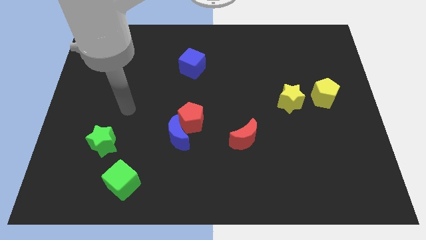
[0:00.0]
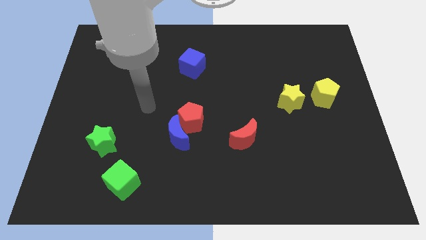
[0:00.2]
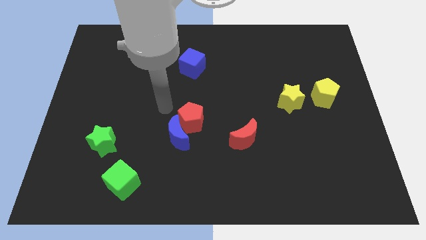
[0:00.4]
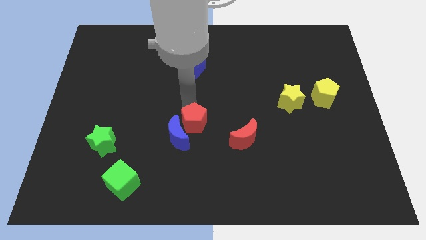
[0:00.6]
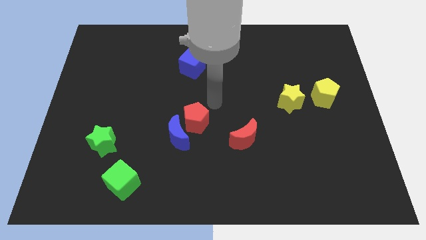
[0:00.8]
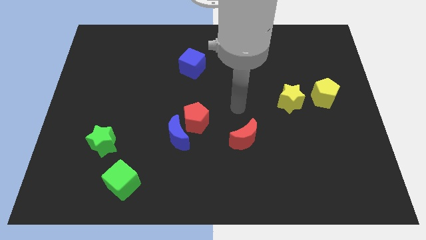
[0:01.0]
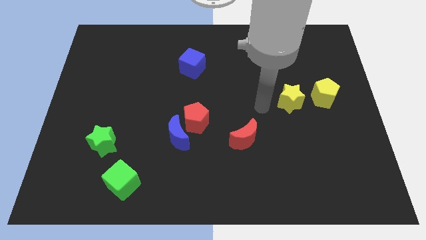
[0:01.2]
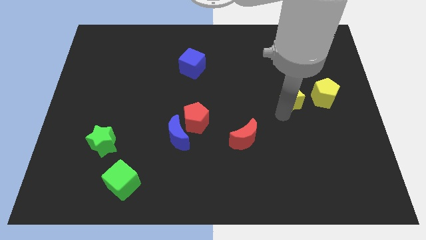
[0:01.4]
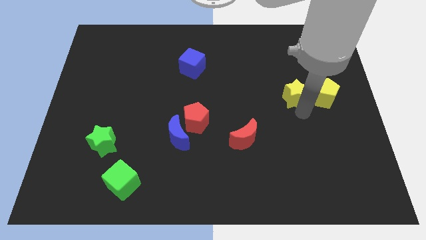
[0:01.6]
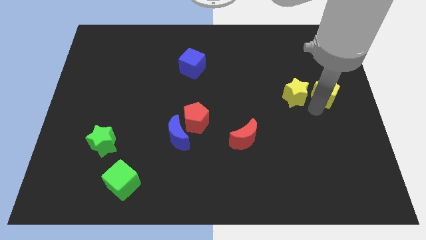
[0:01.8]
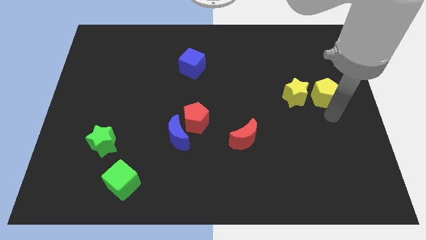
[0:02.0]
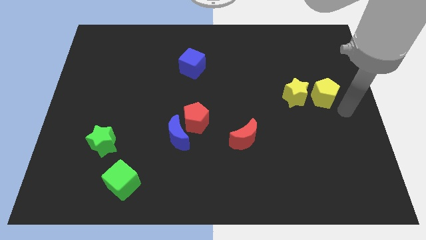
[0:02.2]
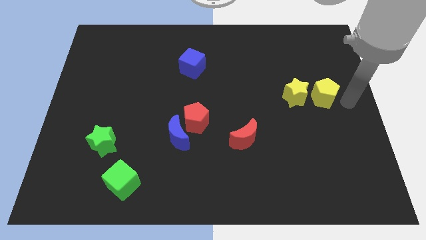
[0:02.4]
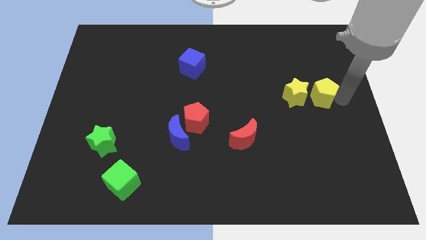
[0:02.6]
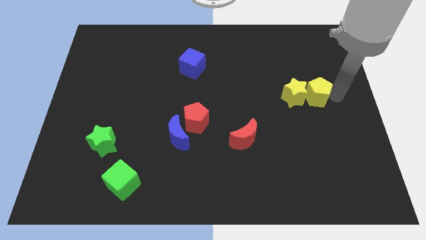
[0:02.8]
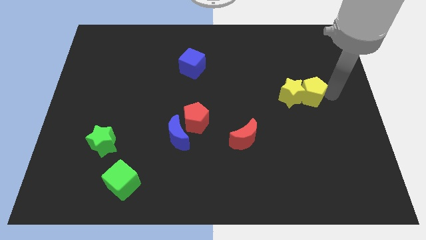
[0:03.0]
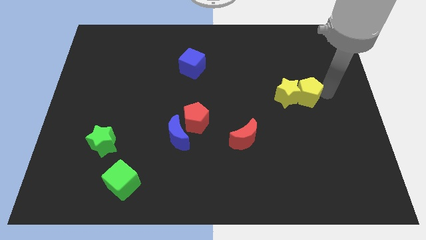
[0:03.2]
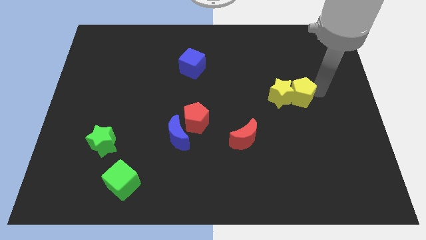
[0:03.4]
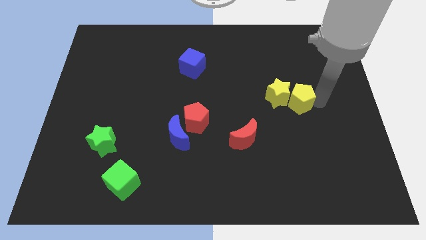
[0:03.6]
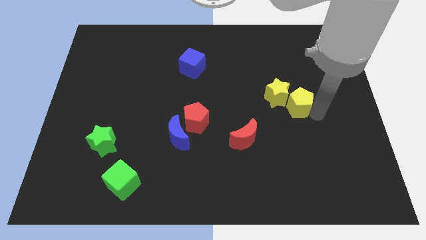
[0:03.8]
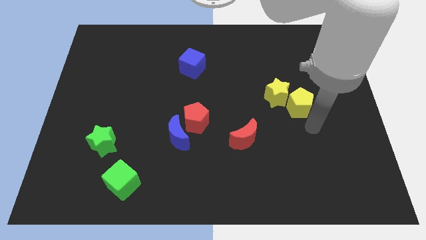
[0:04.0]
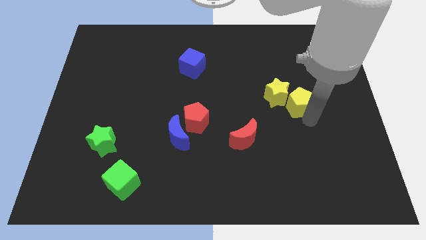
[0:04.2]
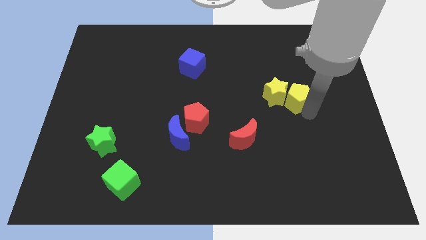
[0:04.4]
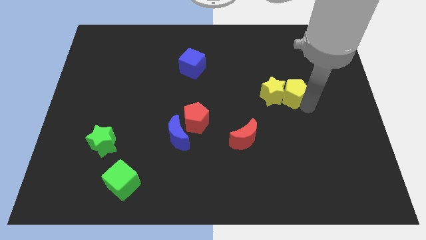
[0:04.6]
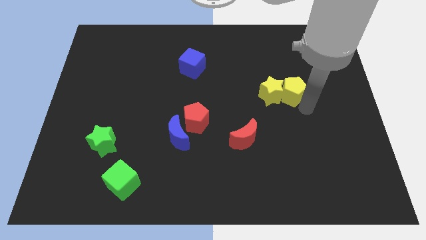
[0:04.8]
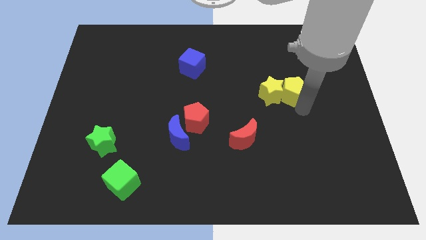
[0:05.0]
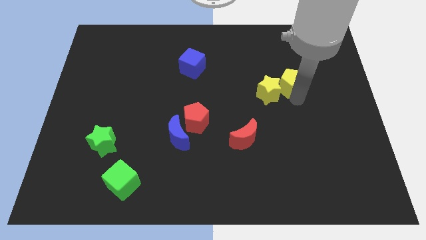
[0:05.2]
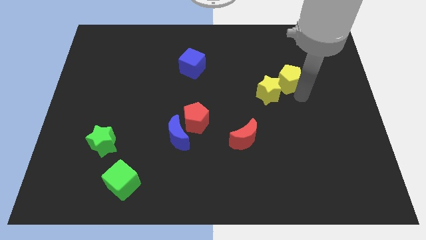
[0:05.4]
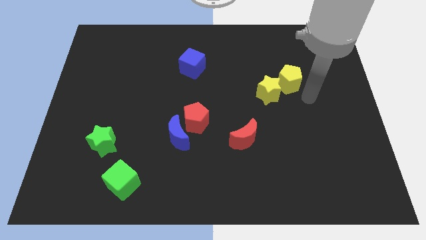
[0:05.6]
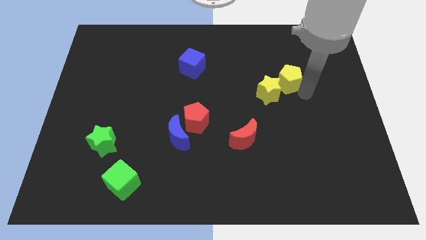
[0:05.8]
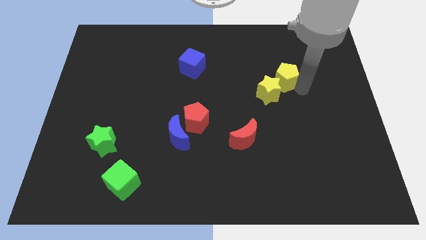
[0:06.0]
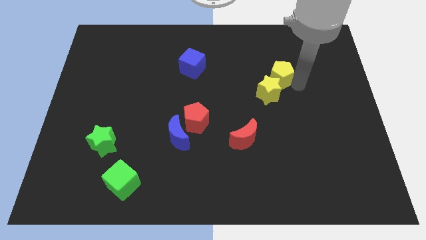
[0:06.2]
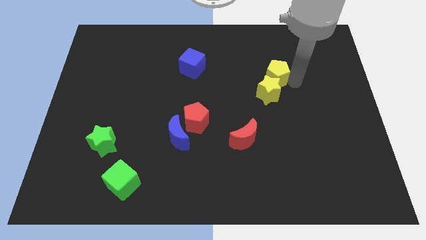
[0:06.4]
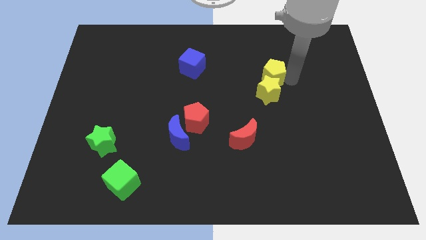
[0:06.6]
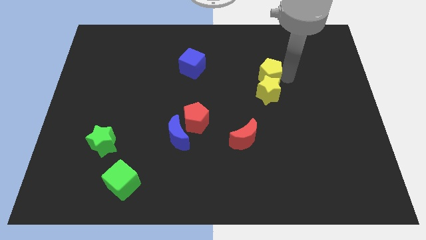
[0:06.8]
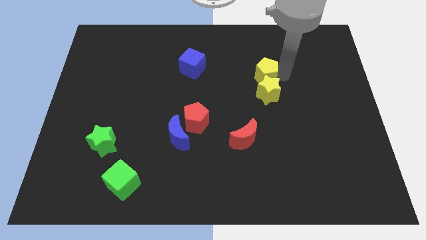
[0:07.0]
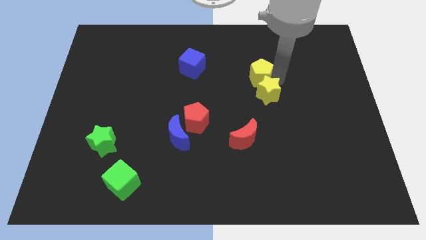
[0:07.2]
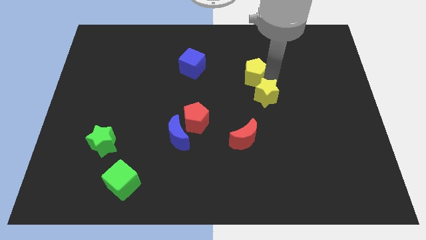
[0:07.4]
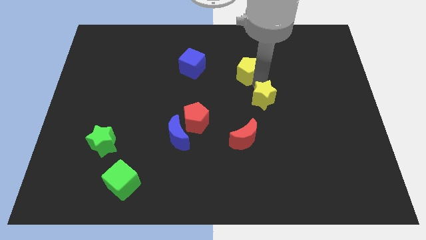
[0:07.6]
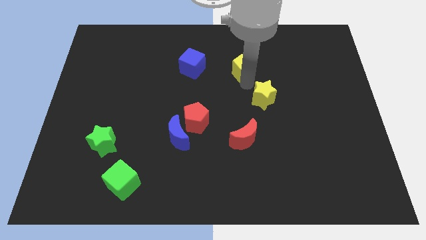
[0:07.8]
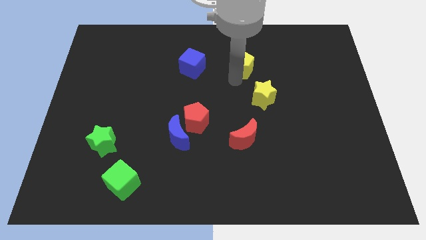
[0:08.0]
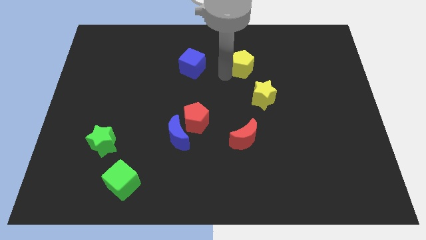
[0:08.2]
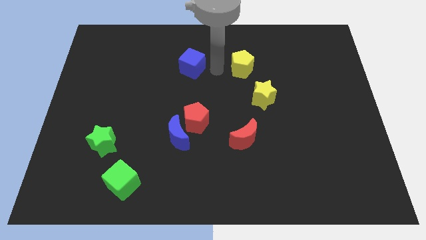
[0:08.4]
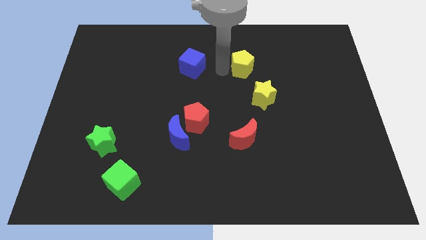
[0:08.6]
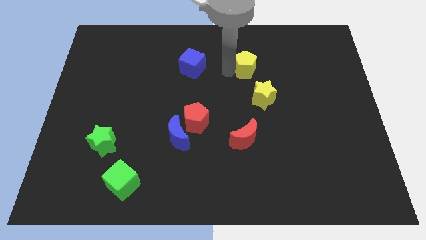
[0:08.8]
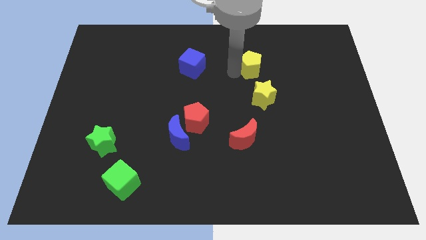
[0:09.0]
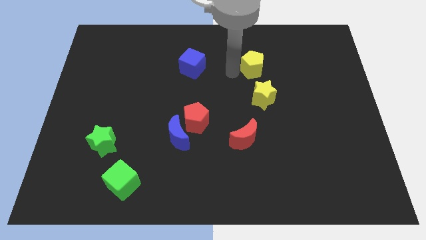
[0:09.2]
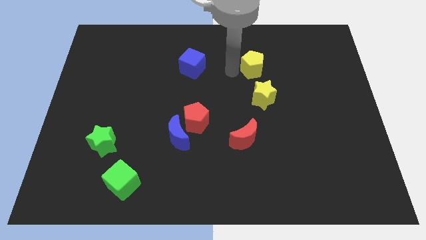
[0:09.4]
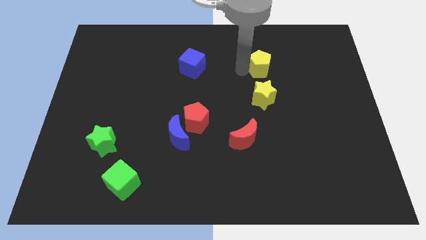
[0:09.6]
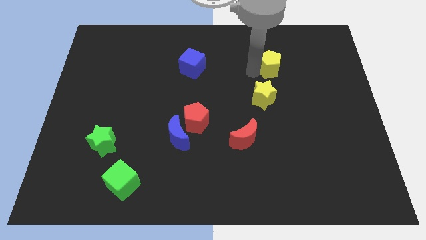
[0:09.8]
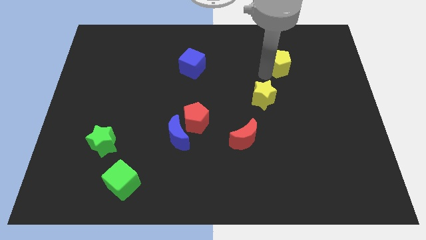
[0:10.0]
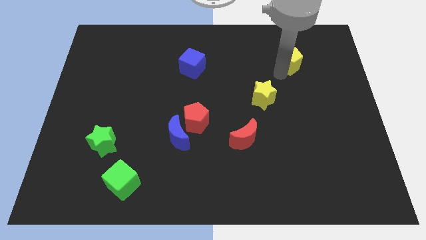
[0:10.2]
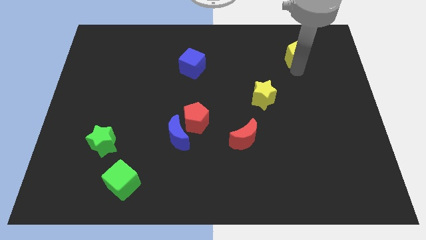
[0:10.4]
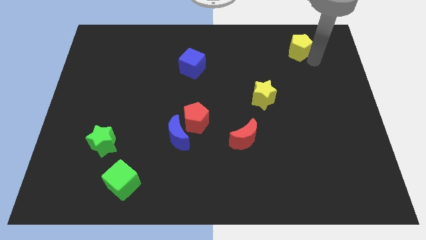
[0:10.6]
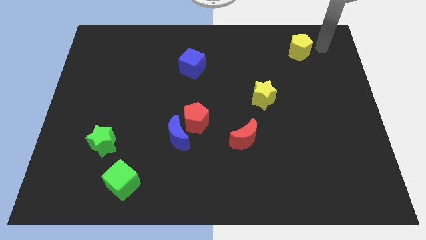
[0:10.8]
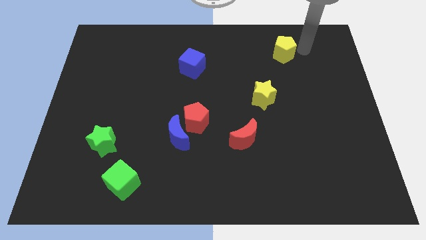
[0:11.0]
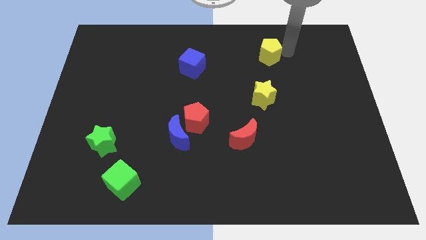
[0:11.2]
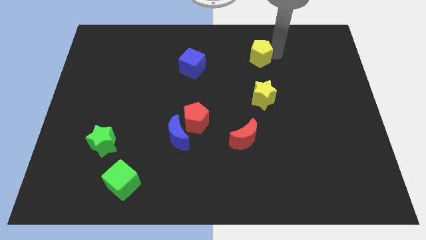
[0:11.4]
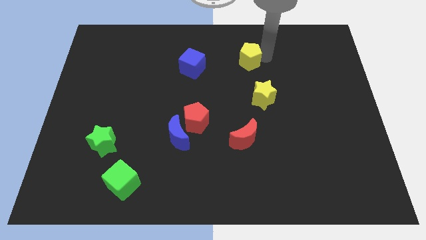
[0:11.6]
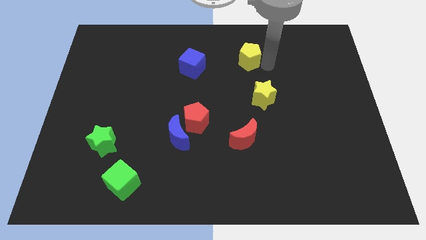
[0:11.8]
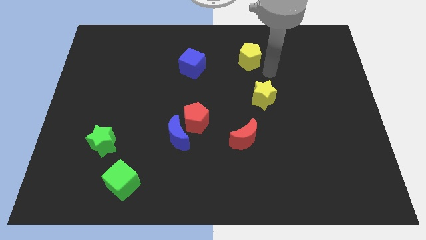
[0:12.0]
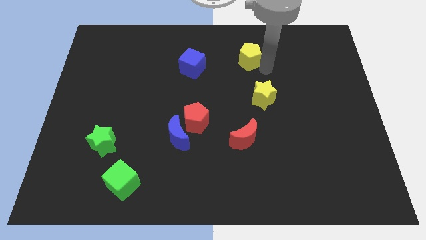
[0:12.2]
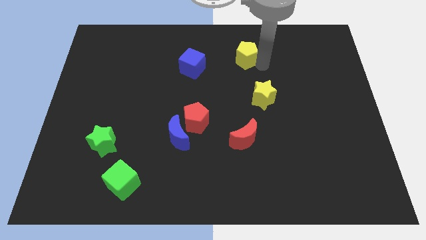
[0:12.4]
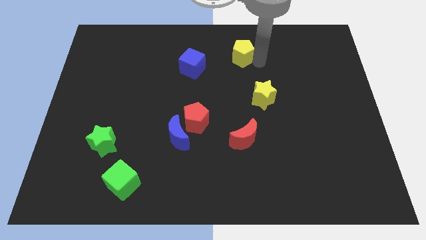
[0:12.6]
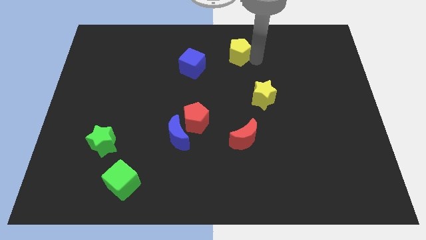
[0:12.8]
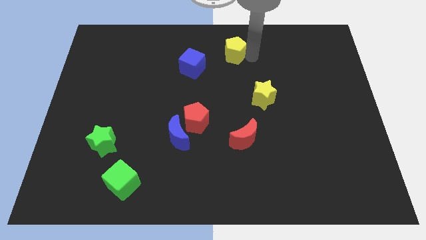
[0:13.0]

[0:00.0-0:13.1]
push the yellow pentagon to the top

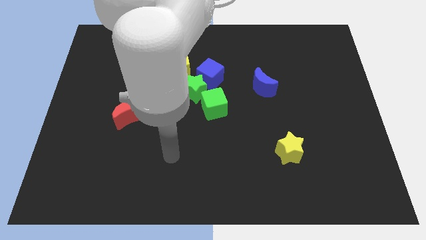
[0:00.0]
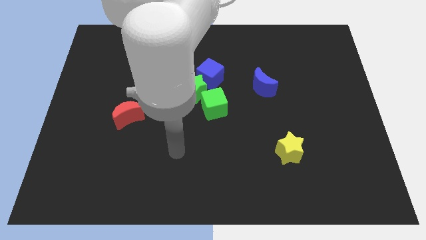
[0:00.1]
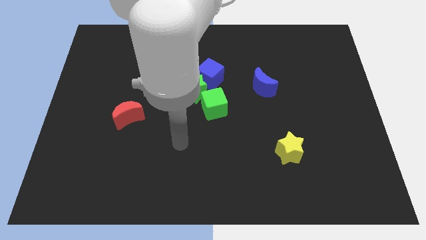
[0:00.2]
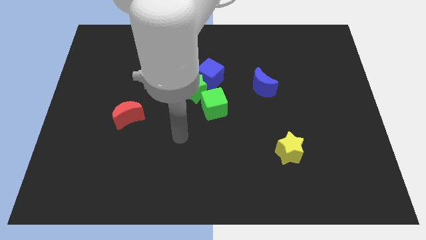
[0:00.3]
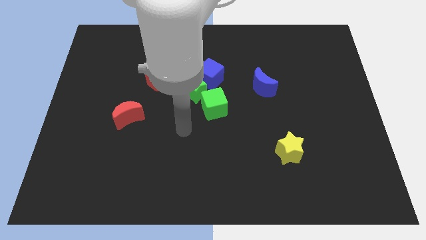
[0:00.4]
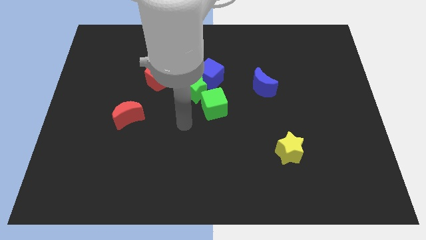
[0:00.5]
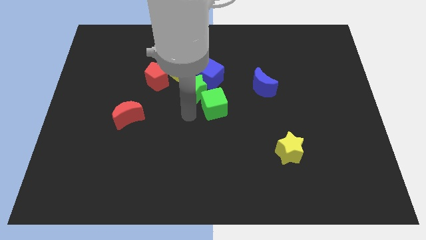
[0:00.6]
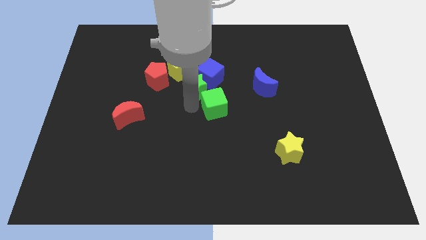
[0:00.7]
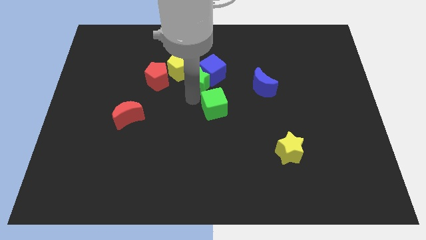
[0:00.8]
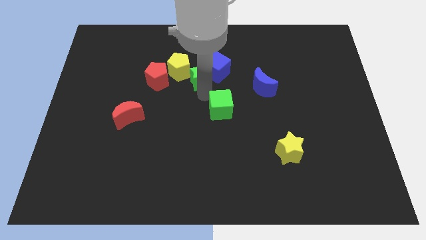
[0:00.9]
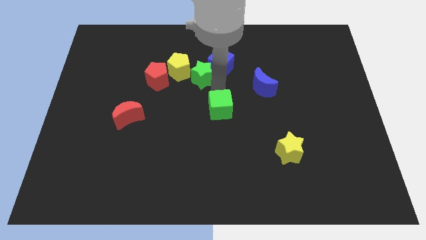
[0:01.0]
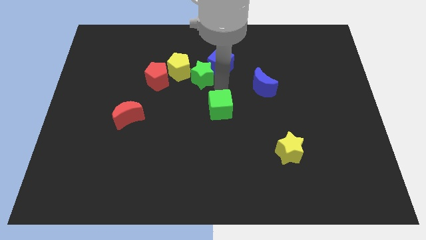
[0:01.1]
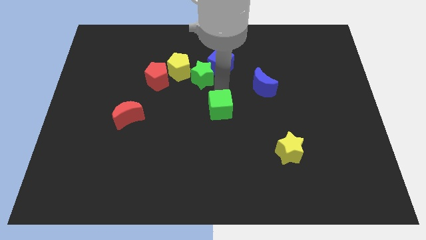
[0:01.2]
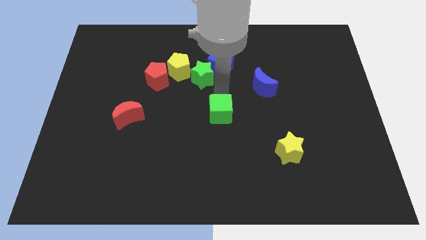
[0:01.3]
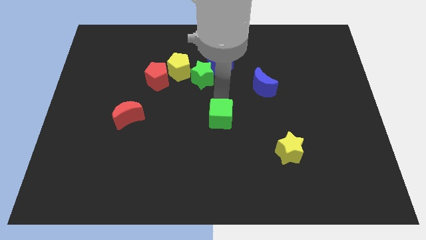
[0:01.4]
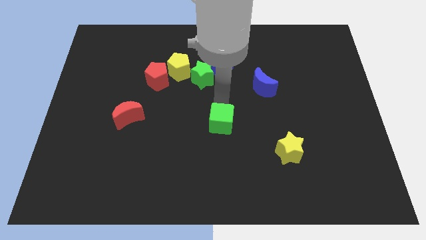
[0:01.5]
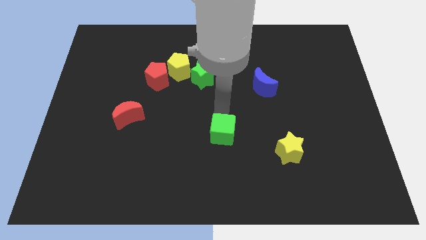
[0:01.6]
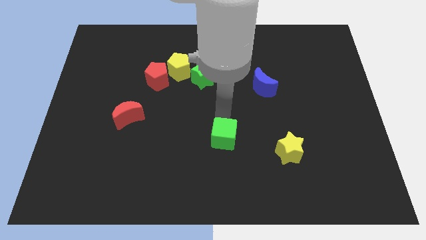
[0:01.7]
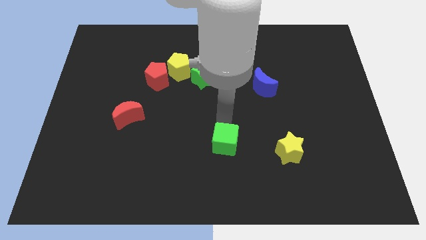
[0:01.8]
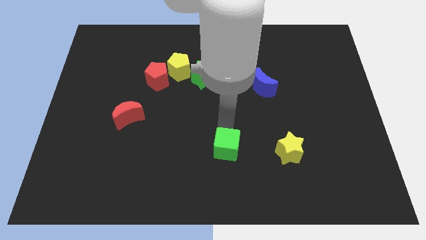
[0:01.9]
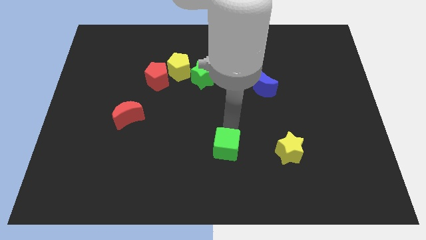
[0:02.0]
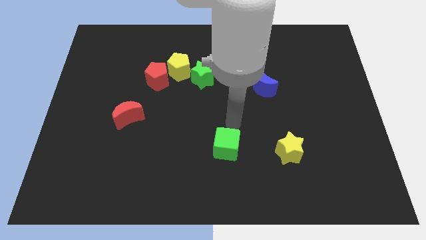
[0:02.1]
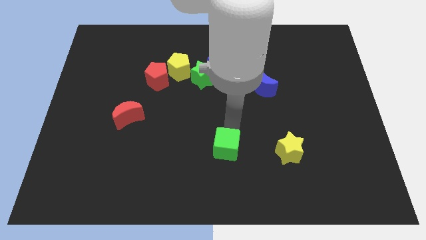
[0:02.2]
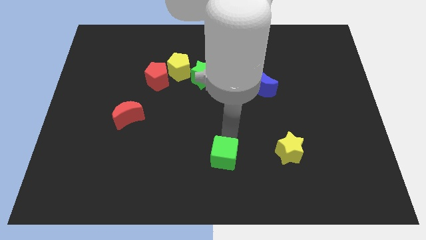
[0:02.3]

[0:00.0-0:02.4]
move the green cube to the bottom side
